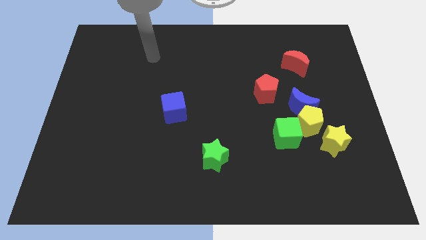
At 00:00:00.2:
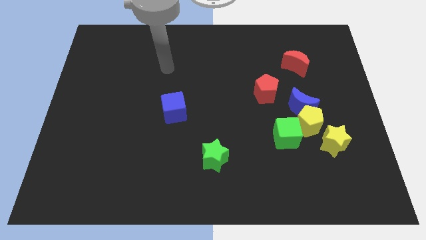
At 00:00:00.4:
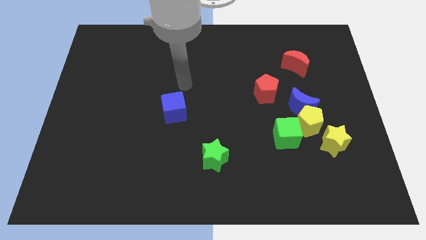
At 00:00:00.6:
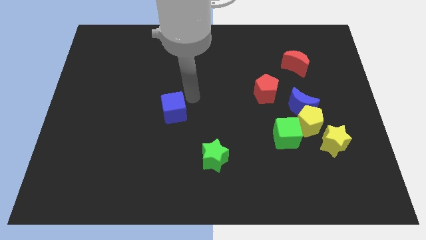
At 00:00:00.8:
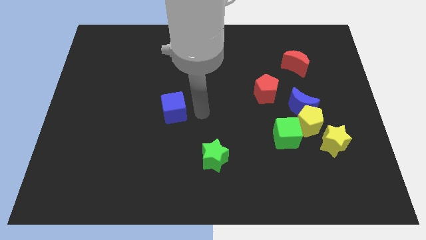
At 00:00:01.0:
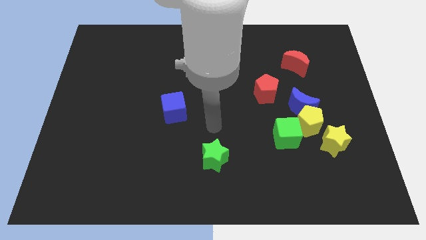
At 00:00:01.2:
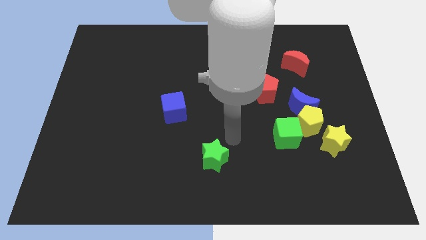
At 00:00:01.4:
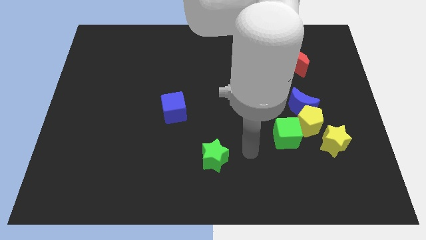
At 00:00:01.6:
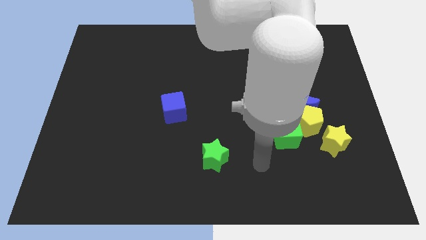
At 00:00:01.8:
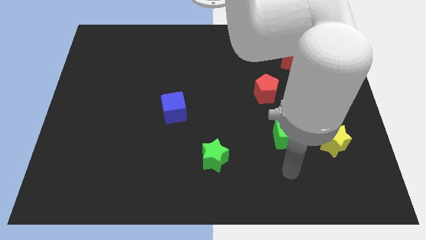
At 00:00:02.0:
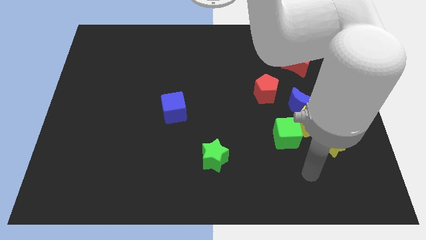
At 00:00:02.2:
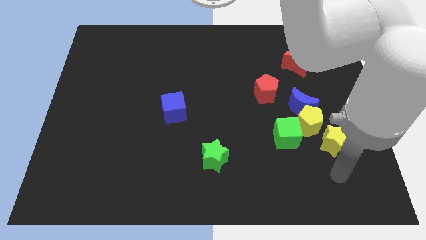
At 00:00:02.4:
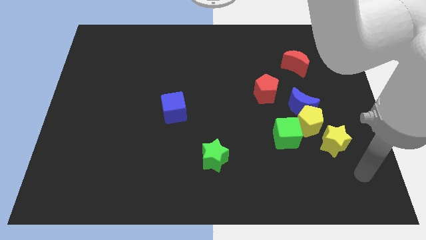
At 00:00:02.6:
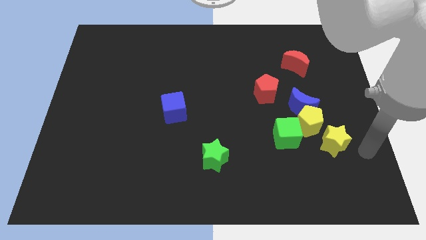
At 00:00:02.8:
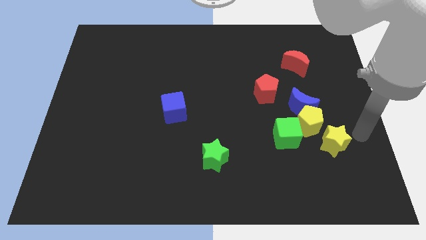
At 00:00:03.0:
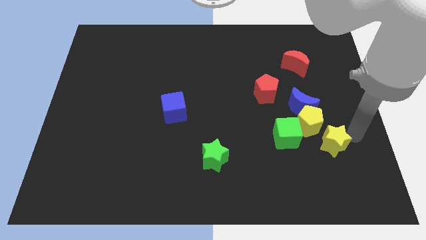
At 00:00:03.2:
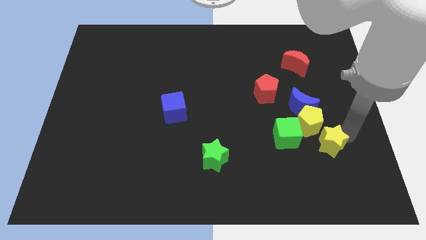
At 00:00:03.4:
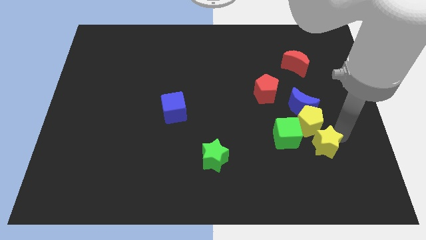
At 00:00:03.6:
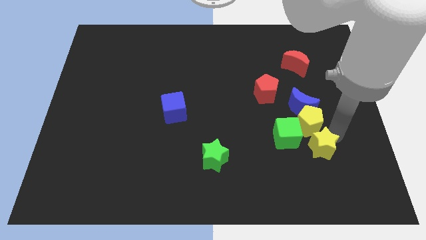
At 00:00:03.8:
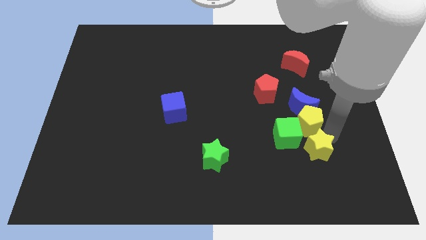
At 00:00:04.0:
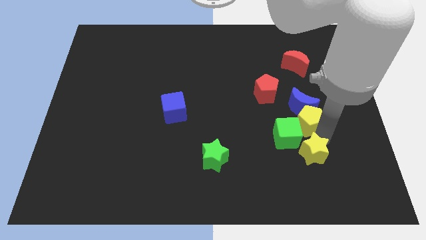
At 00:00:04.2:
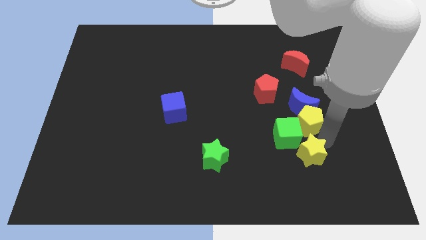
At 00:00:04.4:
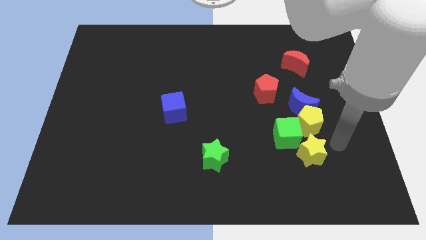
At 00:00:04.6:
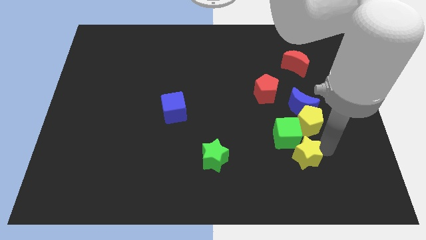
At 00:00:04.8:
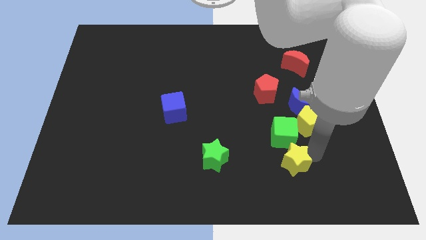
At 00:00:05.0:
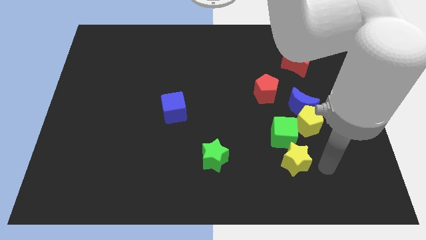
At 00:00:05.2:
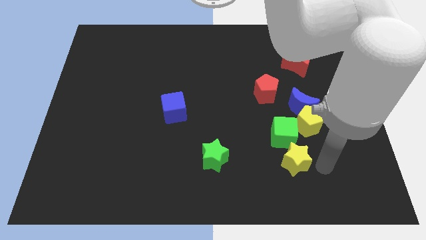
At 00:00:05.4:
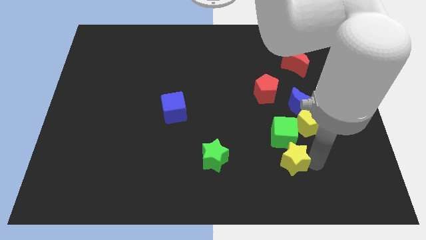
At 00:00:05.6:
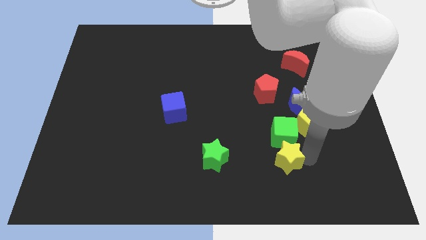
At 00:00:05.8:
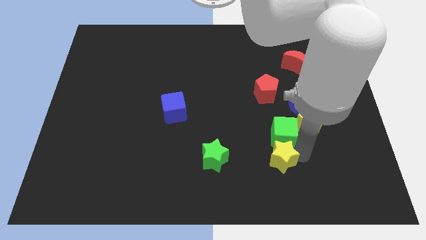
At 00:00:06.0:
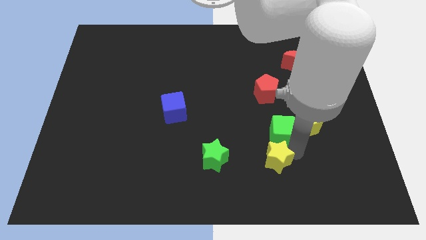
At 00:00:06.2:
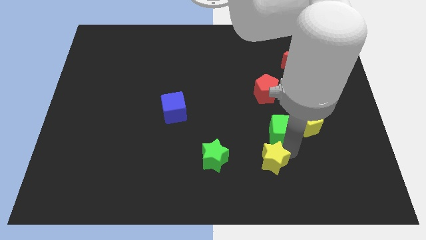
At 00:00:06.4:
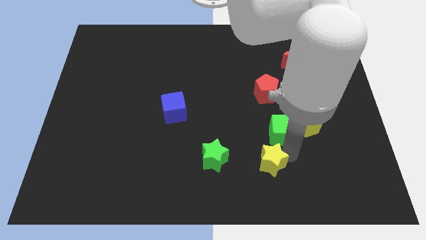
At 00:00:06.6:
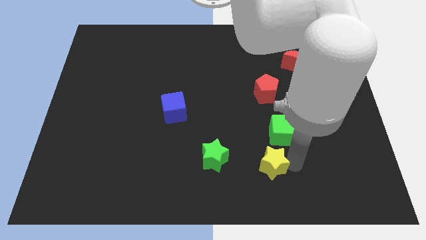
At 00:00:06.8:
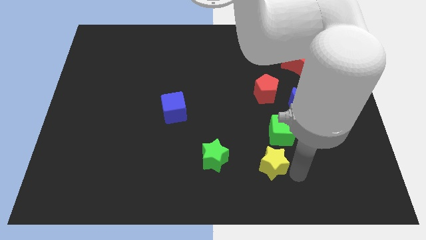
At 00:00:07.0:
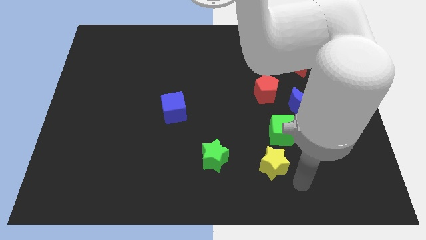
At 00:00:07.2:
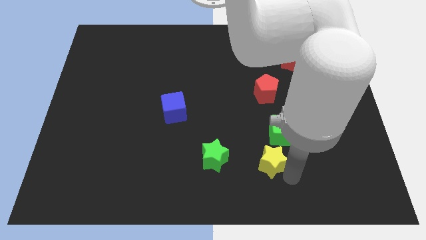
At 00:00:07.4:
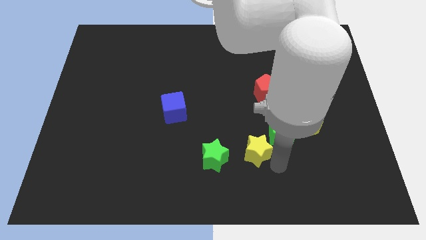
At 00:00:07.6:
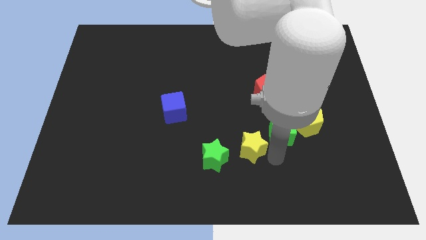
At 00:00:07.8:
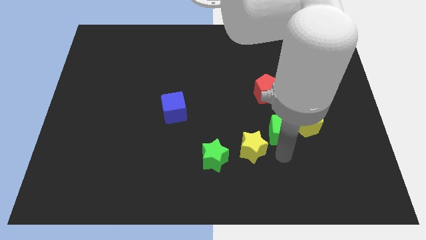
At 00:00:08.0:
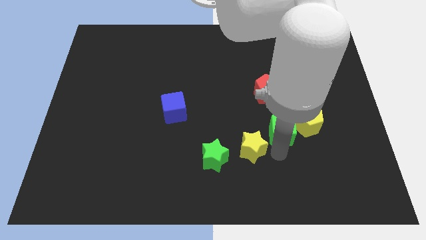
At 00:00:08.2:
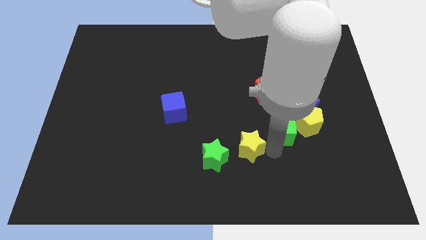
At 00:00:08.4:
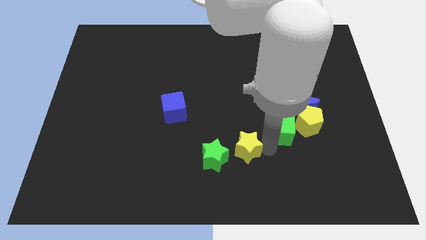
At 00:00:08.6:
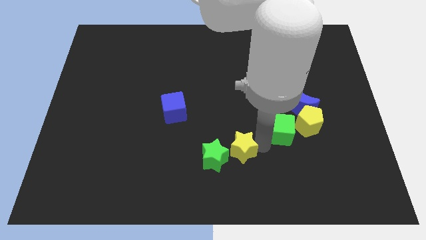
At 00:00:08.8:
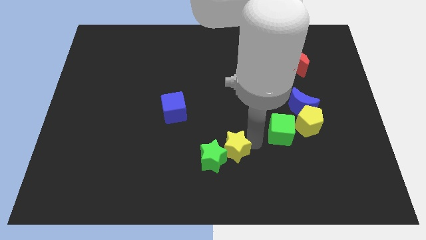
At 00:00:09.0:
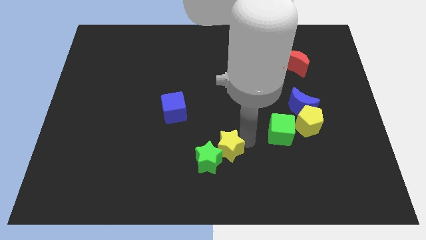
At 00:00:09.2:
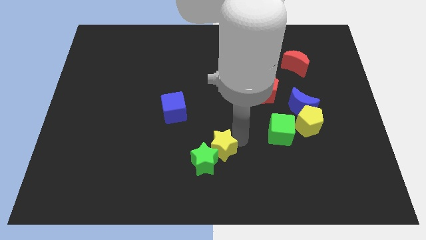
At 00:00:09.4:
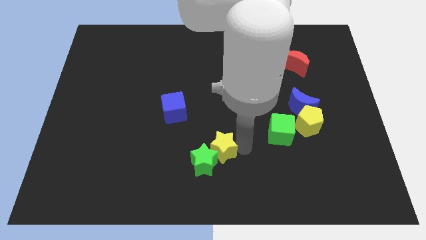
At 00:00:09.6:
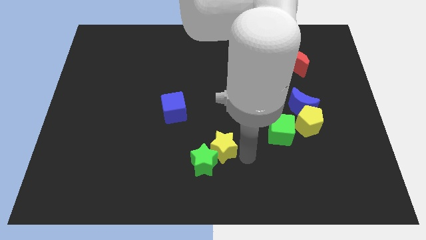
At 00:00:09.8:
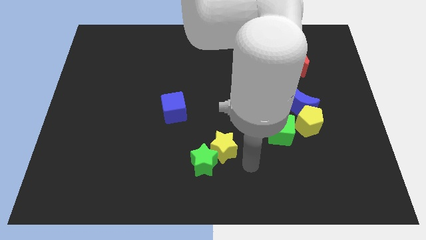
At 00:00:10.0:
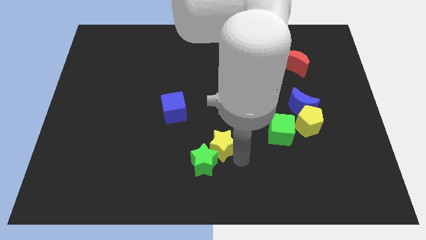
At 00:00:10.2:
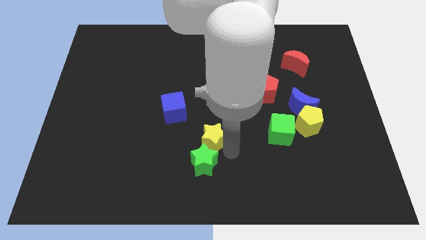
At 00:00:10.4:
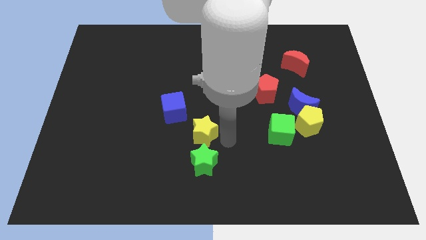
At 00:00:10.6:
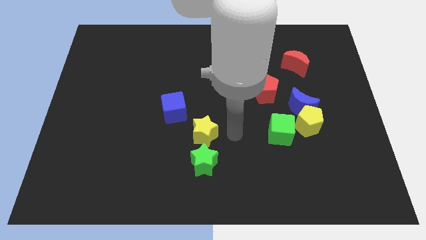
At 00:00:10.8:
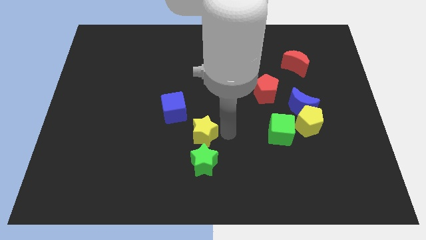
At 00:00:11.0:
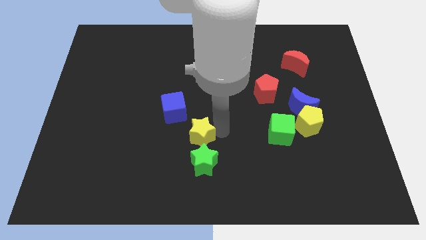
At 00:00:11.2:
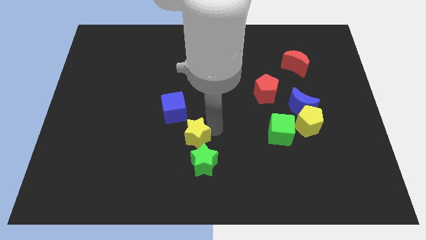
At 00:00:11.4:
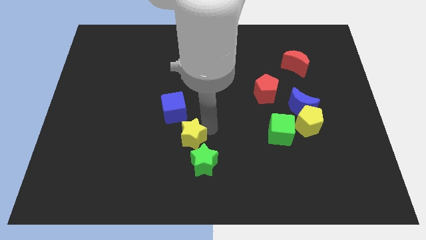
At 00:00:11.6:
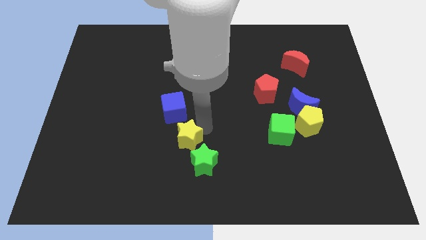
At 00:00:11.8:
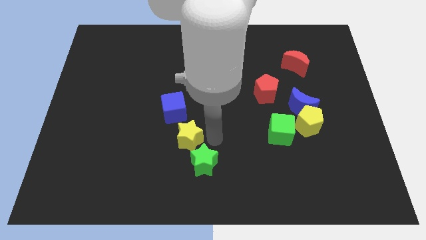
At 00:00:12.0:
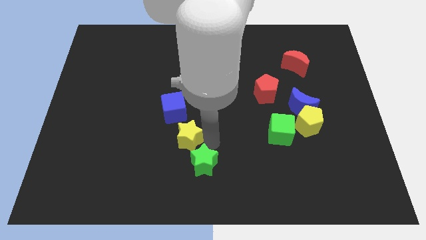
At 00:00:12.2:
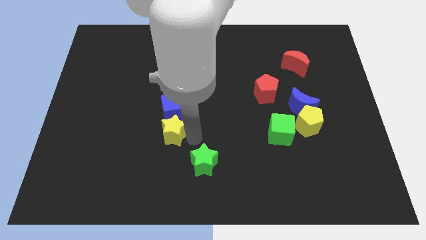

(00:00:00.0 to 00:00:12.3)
move the yellow star to the bottom left side of the blue cube

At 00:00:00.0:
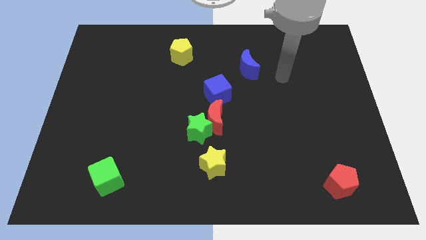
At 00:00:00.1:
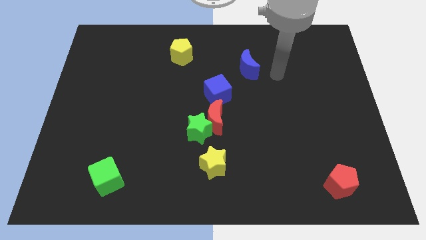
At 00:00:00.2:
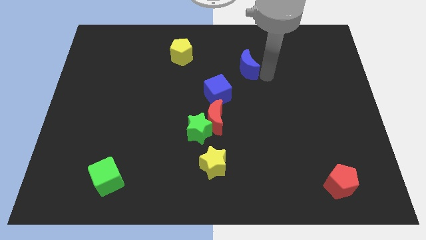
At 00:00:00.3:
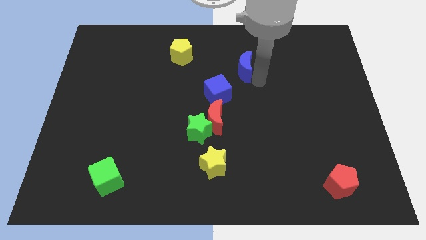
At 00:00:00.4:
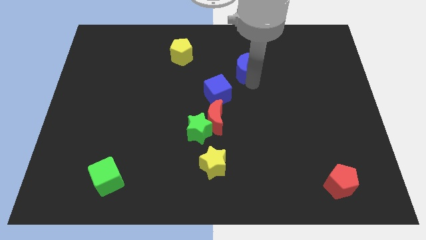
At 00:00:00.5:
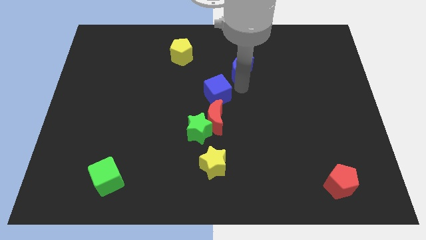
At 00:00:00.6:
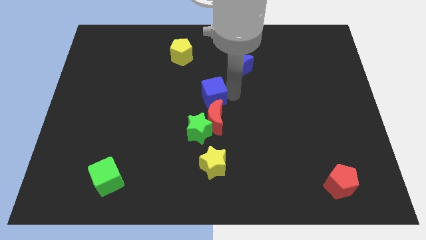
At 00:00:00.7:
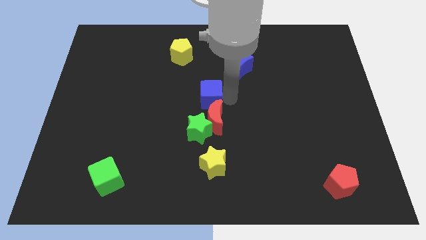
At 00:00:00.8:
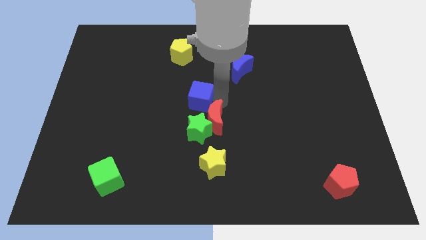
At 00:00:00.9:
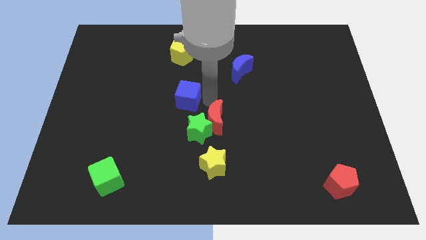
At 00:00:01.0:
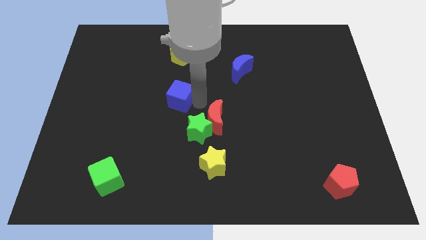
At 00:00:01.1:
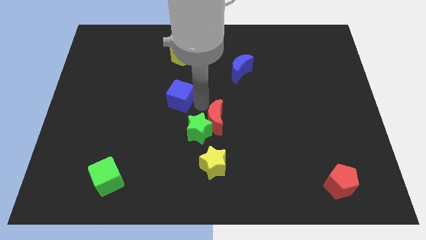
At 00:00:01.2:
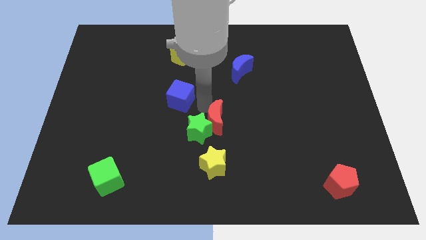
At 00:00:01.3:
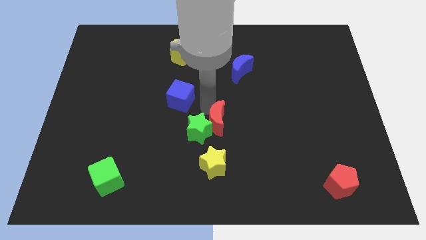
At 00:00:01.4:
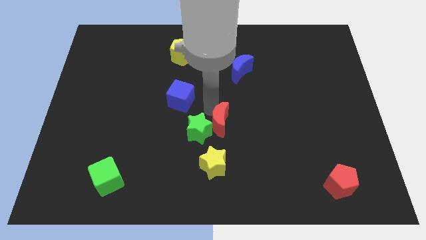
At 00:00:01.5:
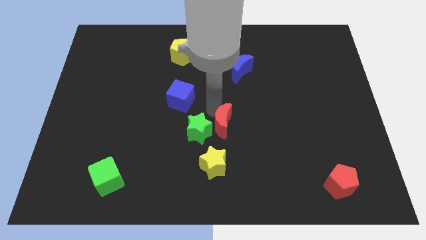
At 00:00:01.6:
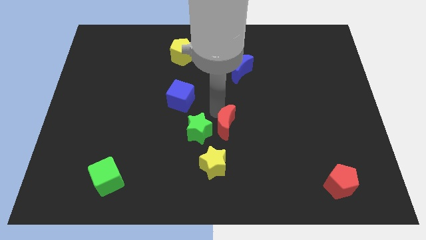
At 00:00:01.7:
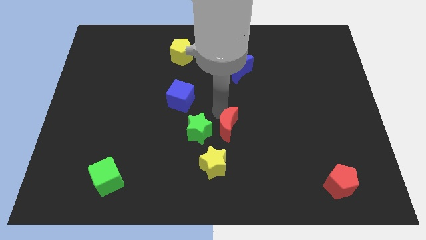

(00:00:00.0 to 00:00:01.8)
slide the red moon to the top right side of the yellow star
